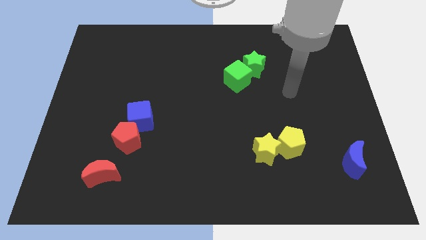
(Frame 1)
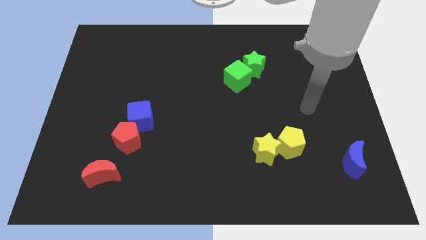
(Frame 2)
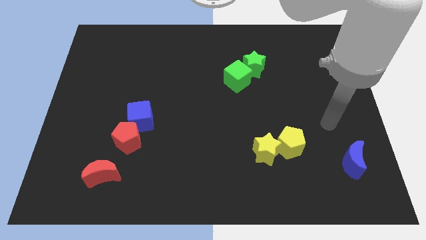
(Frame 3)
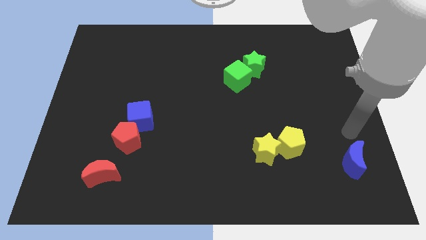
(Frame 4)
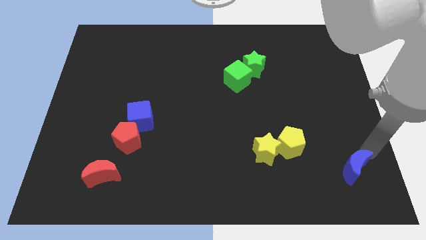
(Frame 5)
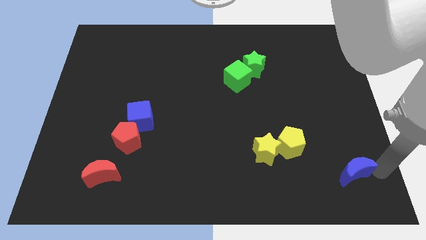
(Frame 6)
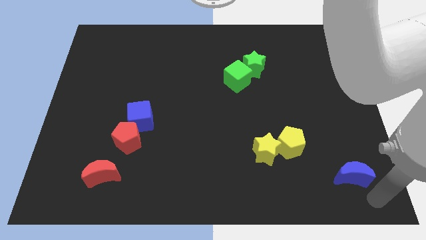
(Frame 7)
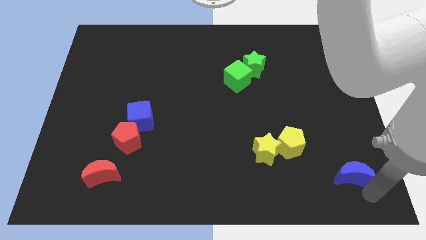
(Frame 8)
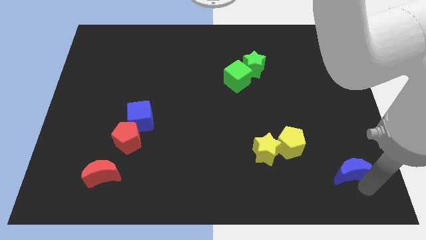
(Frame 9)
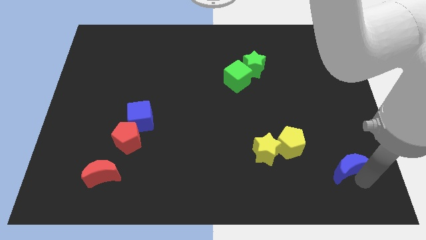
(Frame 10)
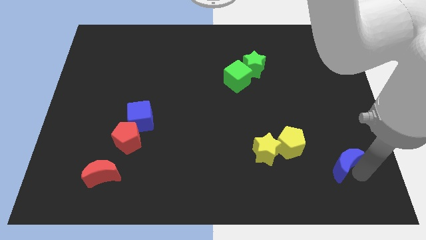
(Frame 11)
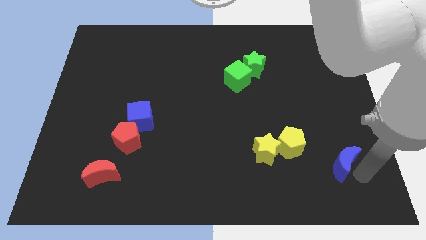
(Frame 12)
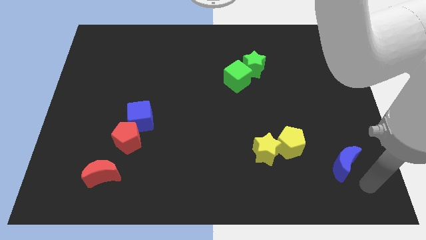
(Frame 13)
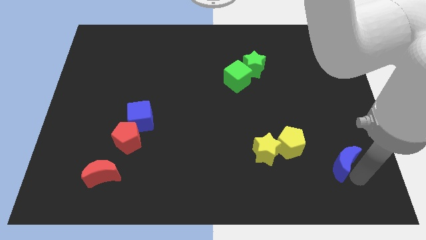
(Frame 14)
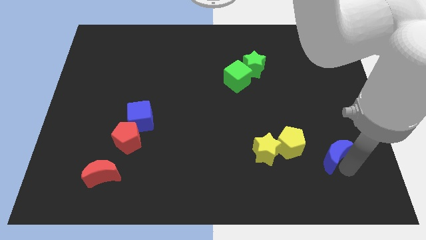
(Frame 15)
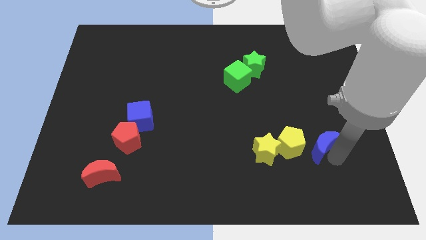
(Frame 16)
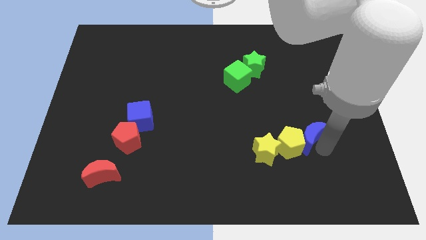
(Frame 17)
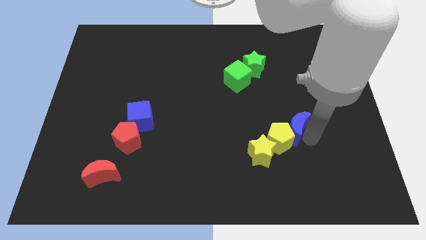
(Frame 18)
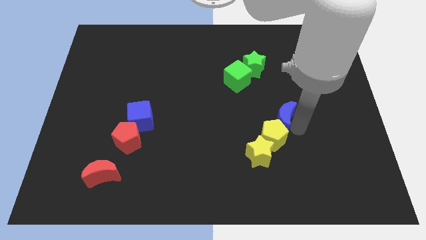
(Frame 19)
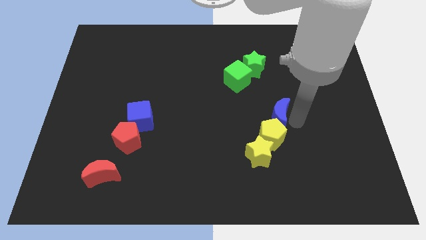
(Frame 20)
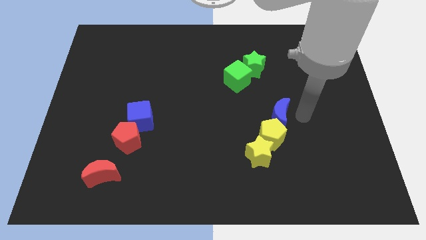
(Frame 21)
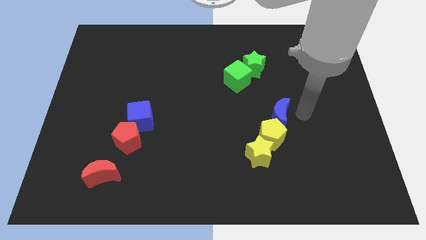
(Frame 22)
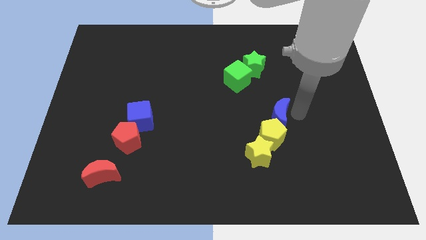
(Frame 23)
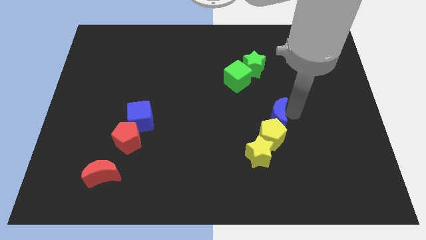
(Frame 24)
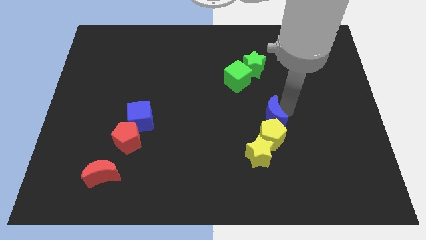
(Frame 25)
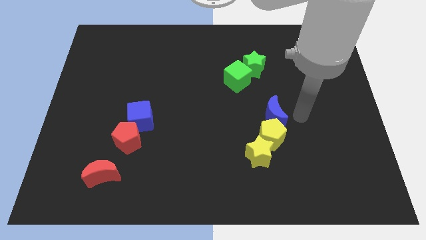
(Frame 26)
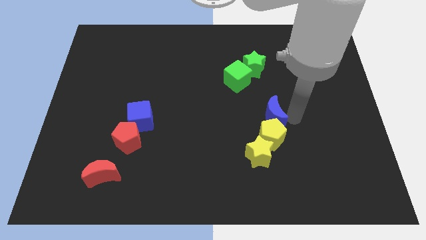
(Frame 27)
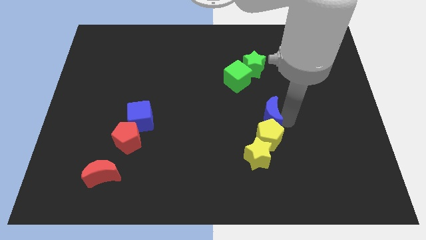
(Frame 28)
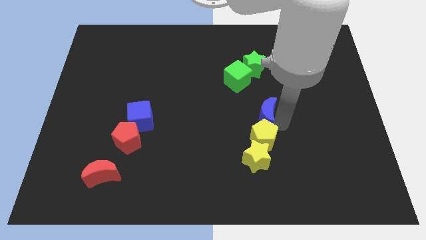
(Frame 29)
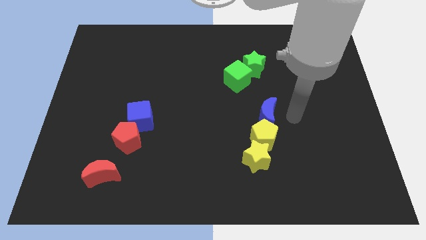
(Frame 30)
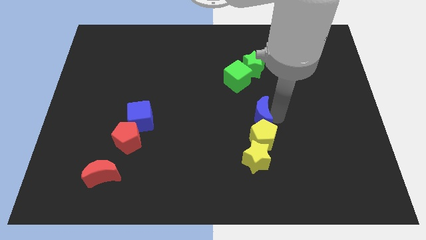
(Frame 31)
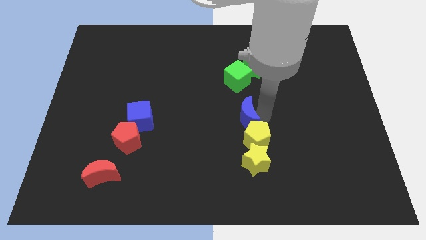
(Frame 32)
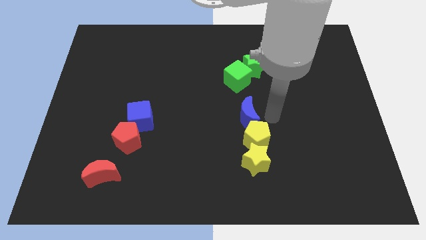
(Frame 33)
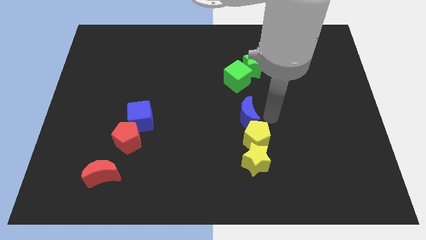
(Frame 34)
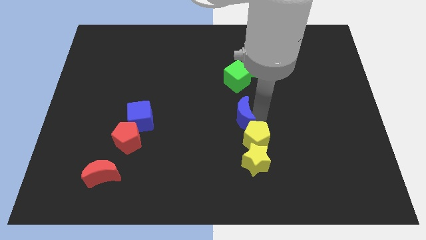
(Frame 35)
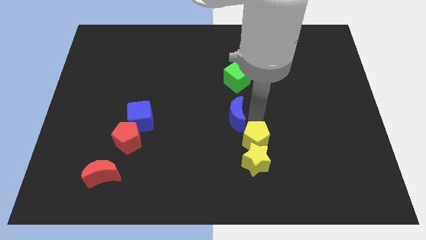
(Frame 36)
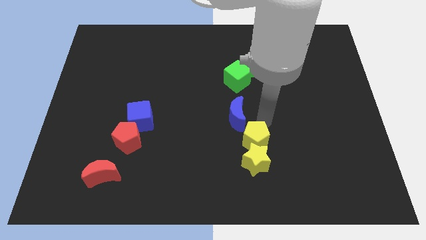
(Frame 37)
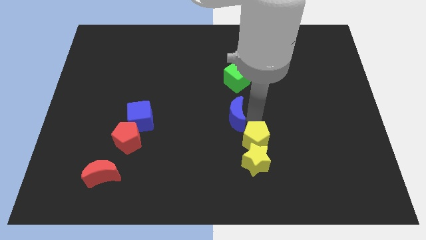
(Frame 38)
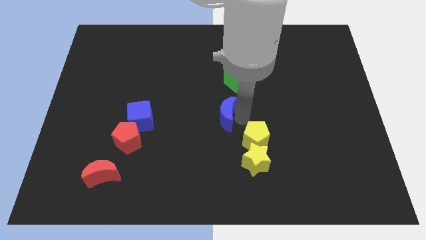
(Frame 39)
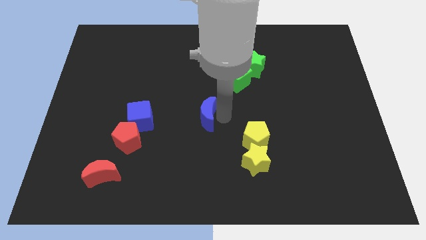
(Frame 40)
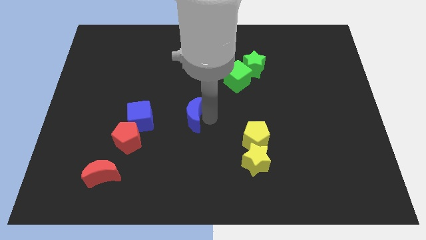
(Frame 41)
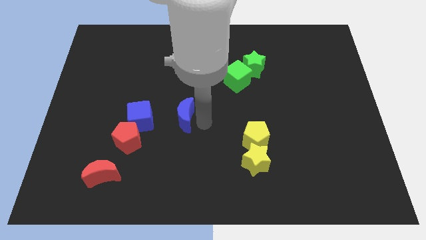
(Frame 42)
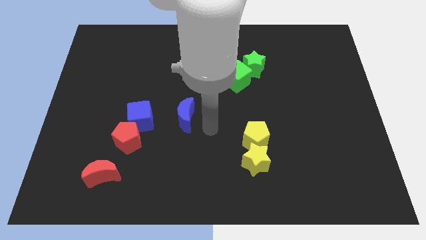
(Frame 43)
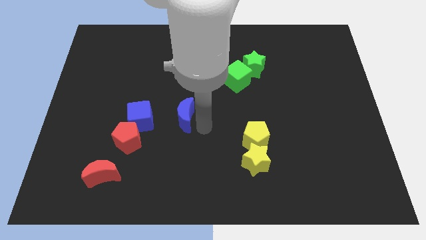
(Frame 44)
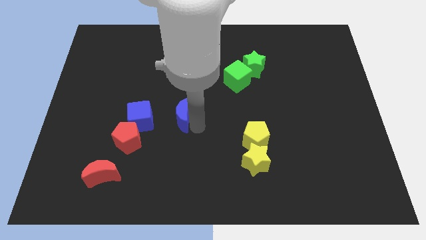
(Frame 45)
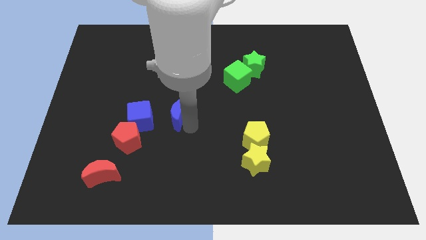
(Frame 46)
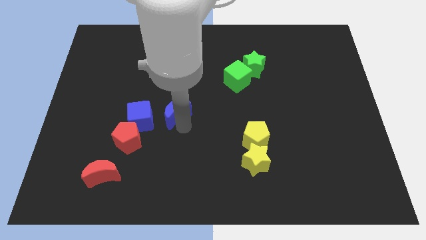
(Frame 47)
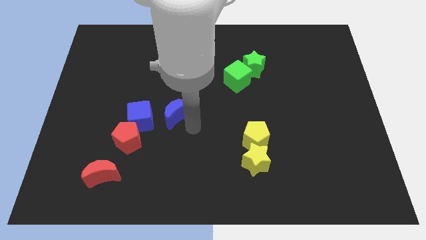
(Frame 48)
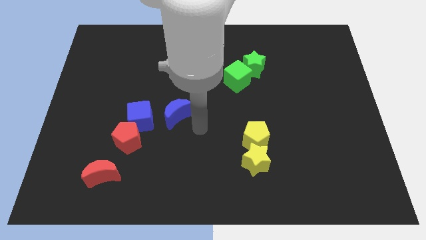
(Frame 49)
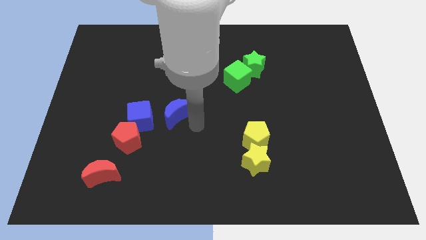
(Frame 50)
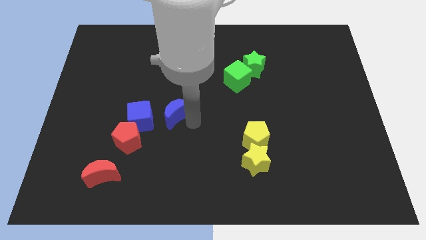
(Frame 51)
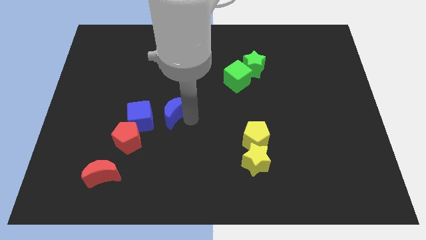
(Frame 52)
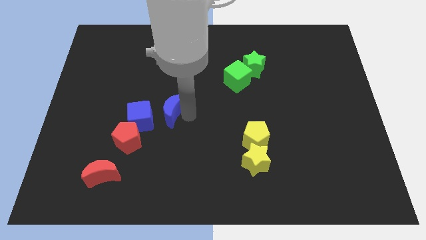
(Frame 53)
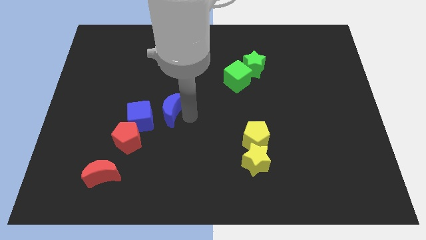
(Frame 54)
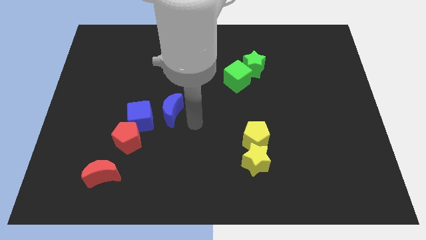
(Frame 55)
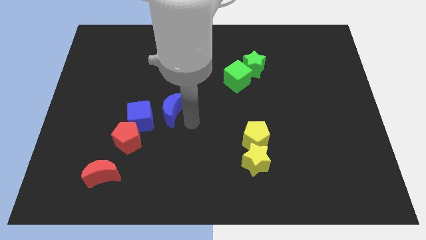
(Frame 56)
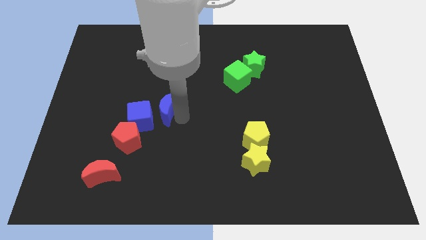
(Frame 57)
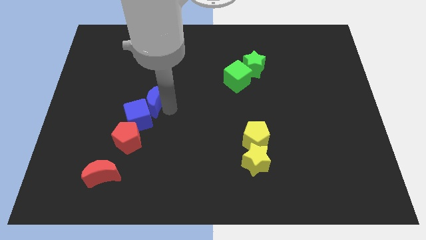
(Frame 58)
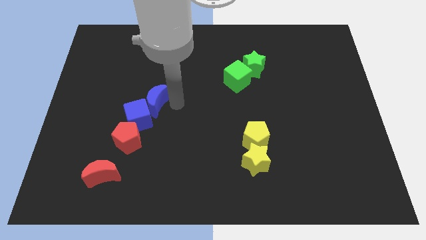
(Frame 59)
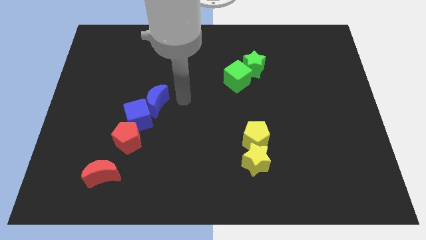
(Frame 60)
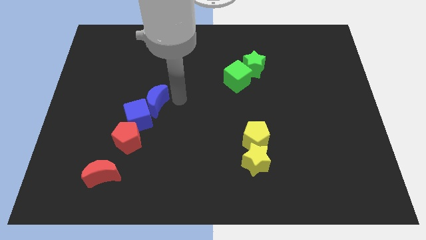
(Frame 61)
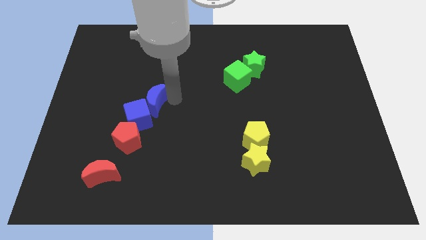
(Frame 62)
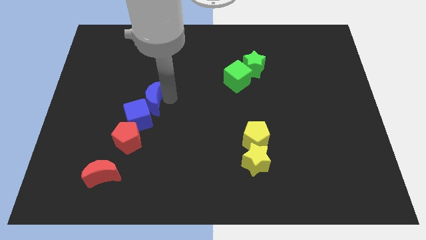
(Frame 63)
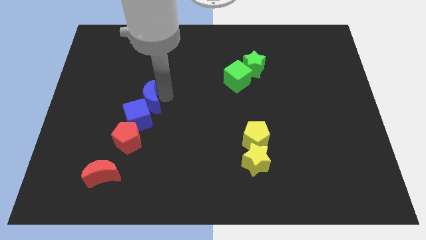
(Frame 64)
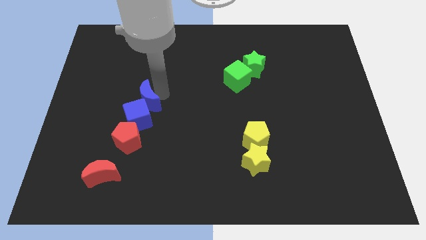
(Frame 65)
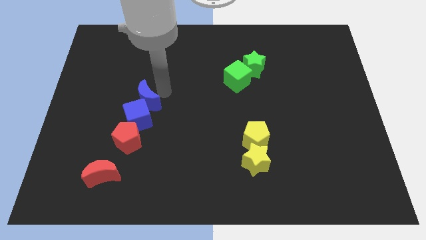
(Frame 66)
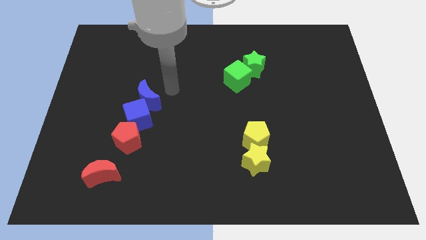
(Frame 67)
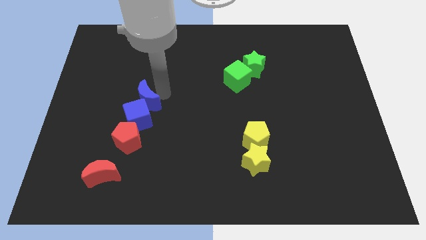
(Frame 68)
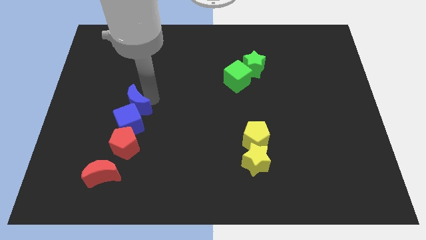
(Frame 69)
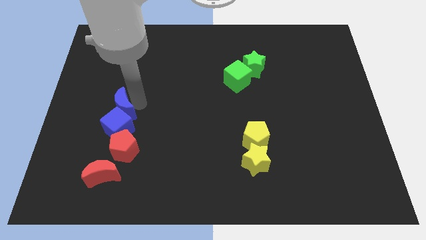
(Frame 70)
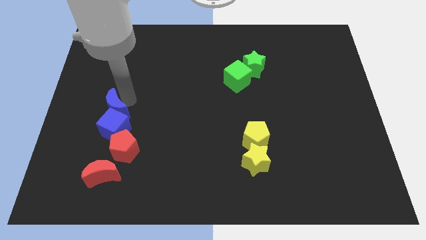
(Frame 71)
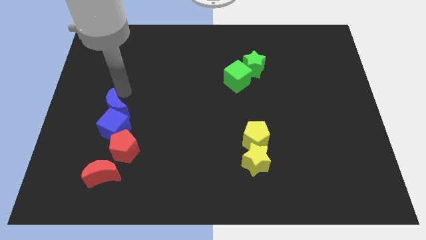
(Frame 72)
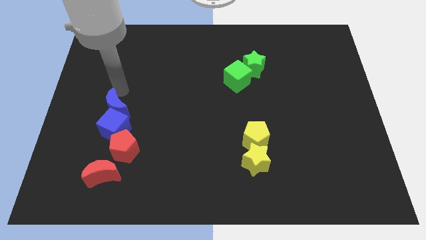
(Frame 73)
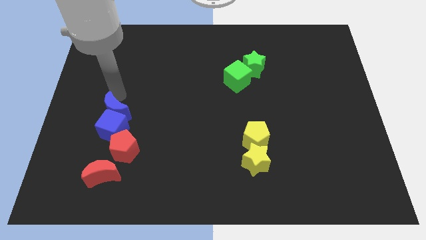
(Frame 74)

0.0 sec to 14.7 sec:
put the blue moon to the top side of the red moon
